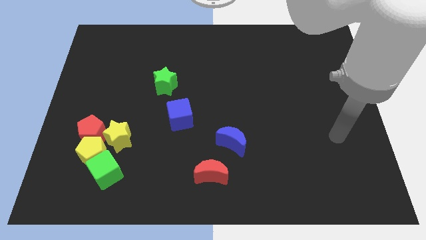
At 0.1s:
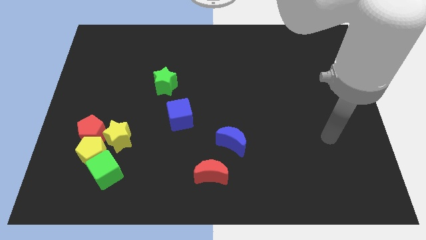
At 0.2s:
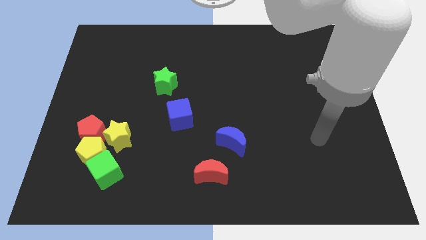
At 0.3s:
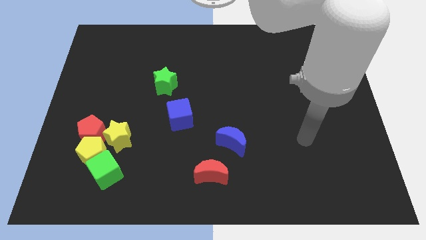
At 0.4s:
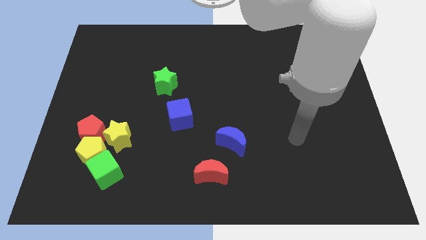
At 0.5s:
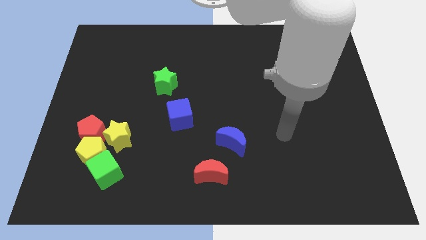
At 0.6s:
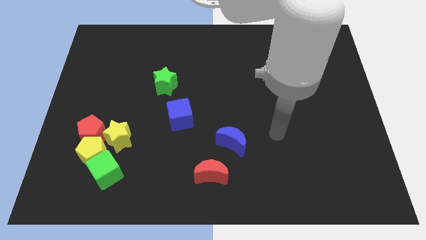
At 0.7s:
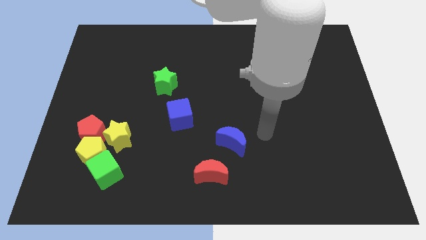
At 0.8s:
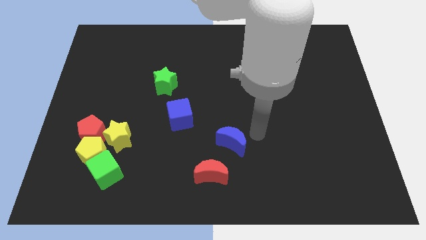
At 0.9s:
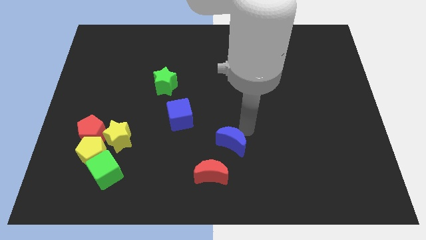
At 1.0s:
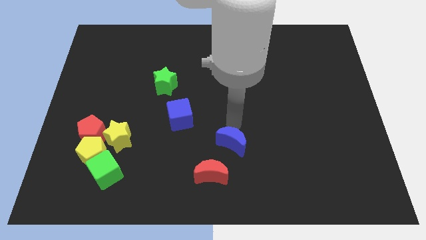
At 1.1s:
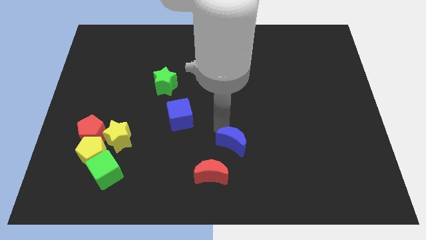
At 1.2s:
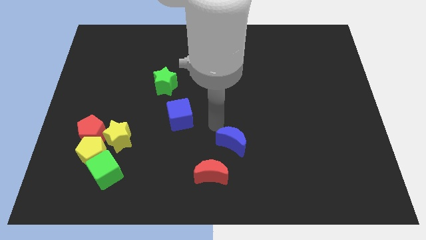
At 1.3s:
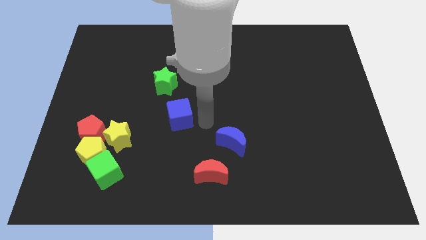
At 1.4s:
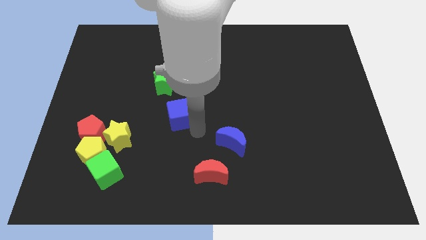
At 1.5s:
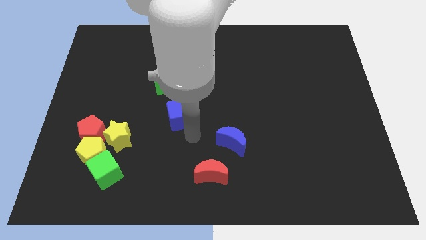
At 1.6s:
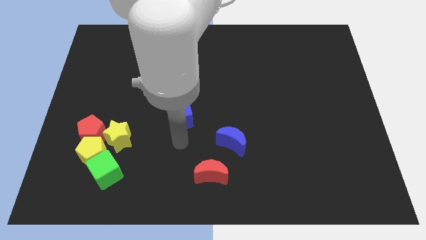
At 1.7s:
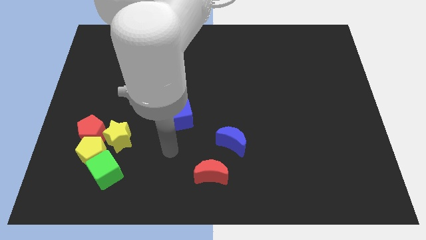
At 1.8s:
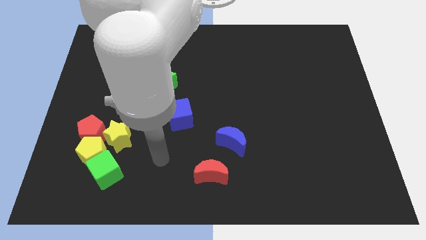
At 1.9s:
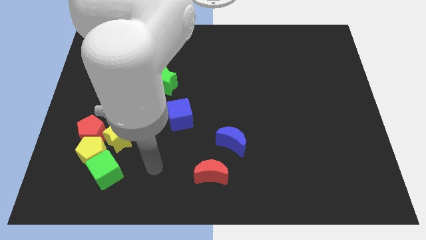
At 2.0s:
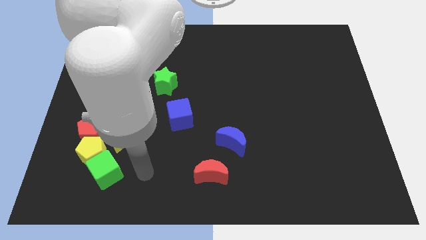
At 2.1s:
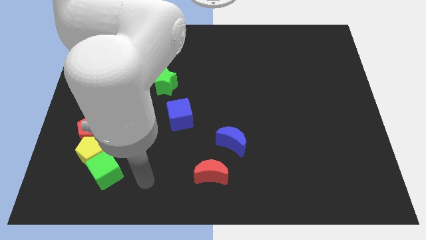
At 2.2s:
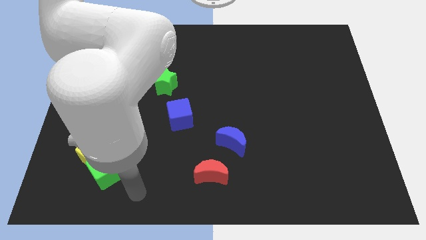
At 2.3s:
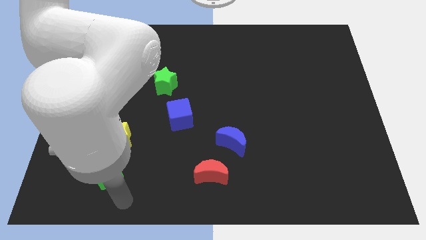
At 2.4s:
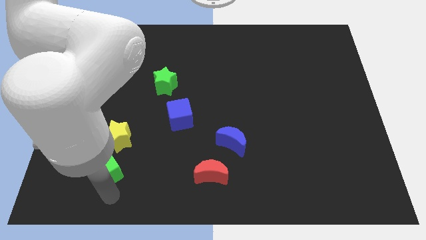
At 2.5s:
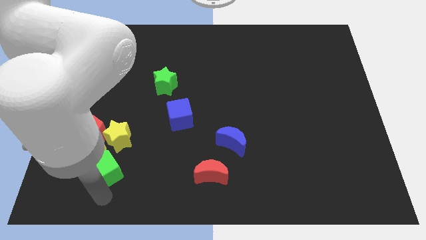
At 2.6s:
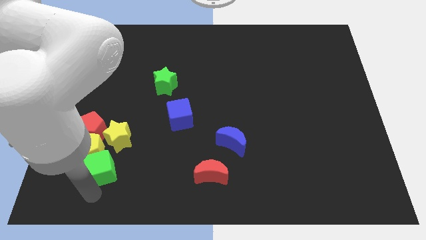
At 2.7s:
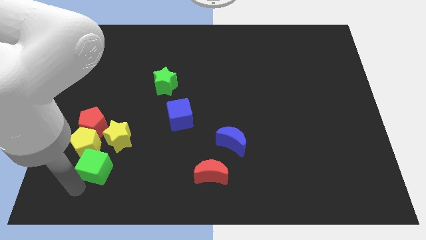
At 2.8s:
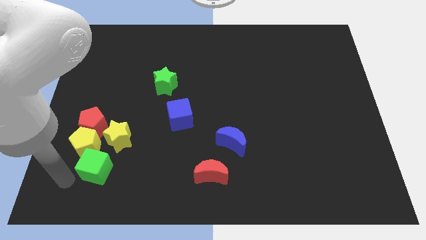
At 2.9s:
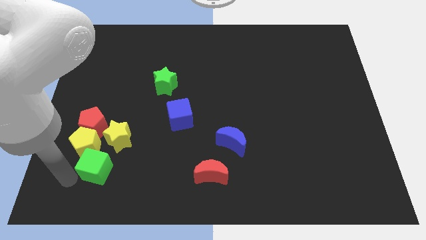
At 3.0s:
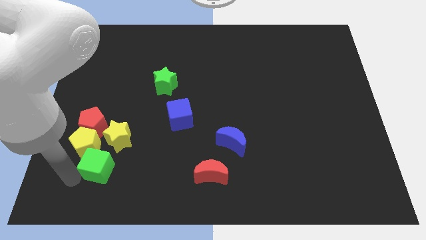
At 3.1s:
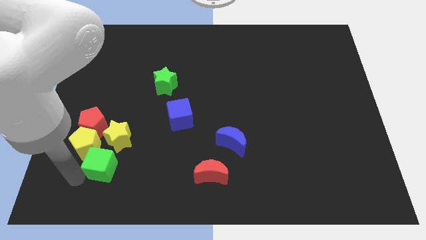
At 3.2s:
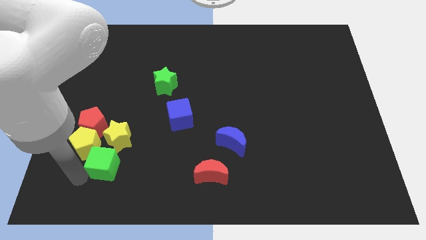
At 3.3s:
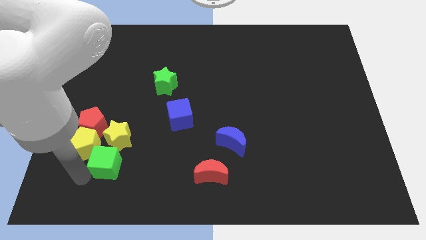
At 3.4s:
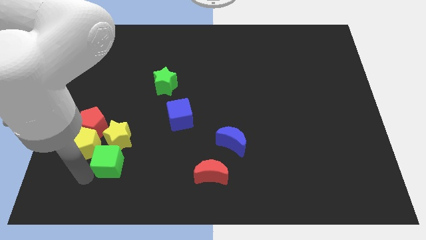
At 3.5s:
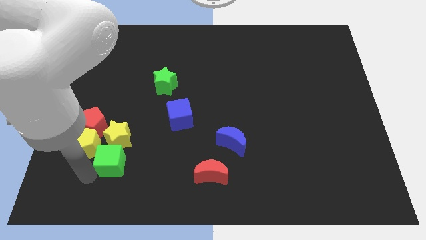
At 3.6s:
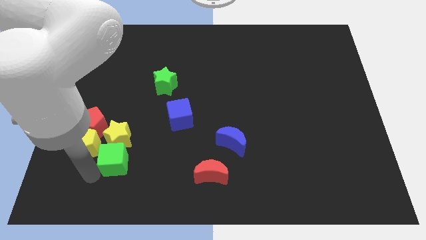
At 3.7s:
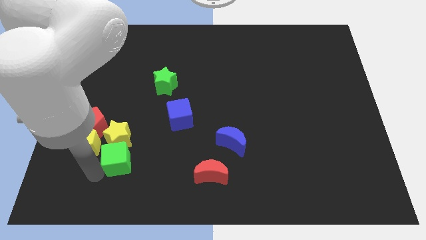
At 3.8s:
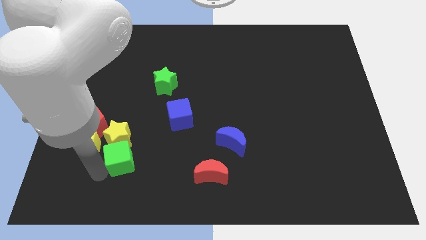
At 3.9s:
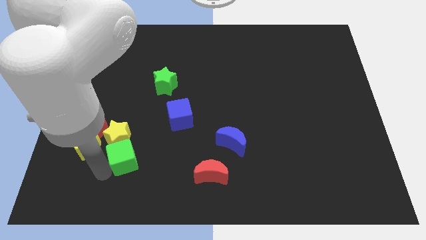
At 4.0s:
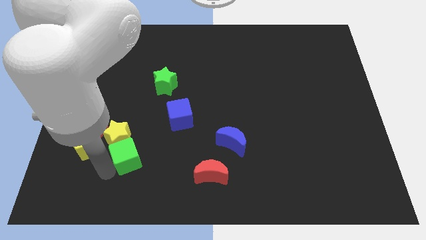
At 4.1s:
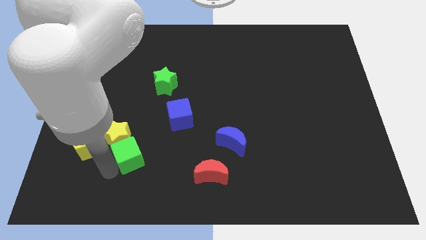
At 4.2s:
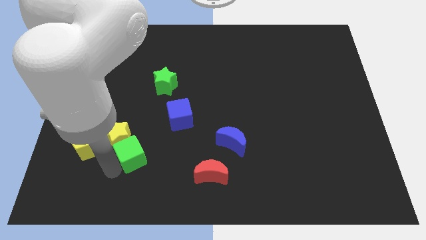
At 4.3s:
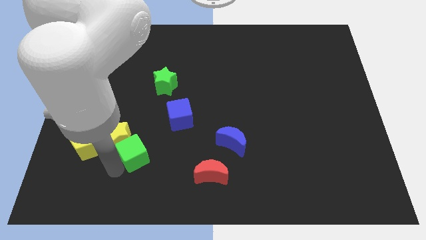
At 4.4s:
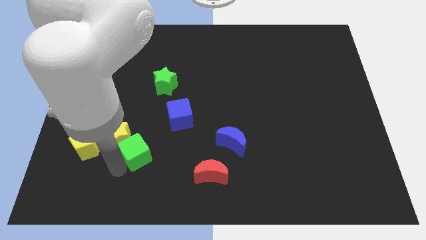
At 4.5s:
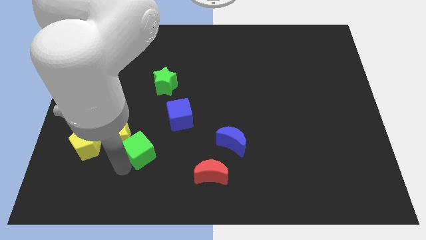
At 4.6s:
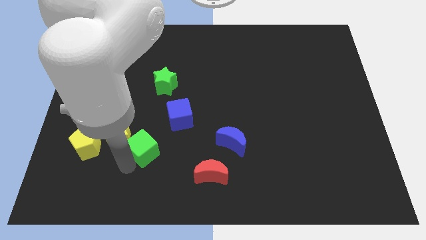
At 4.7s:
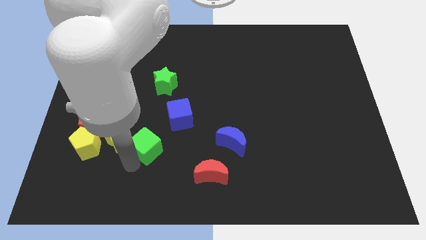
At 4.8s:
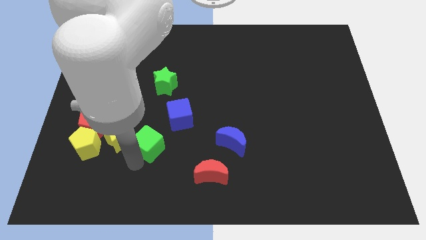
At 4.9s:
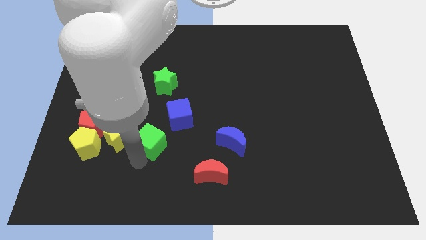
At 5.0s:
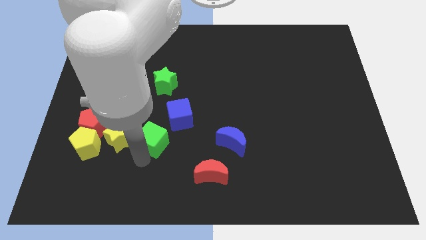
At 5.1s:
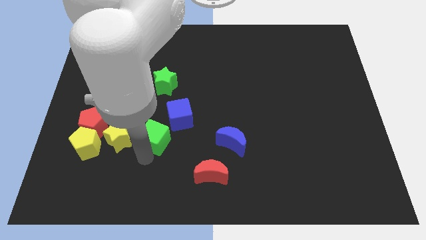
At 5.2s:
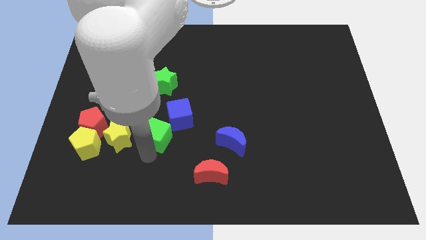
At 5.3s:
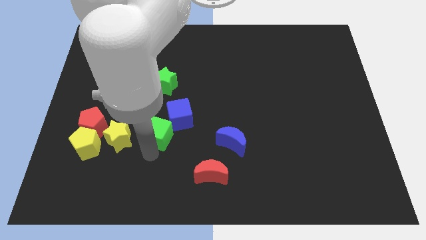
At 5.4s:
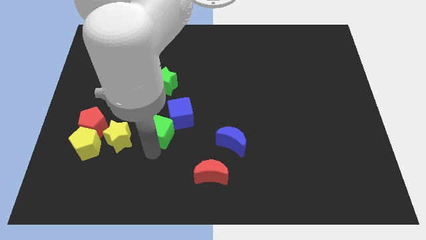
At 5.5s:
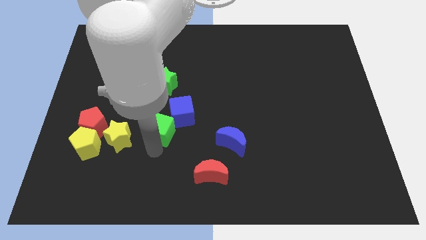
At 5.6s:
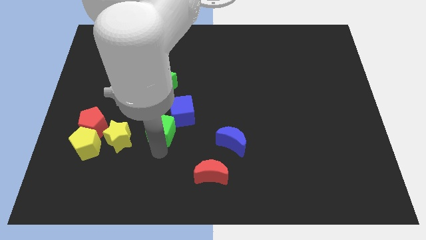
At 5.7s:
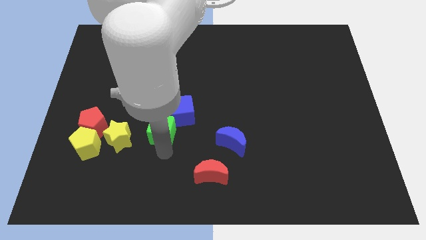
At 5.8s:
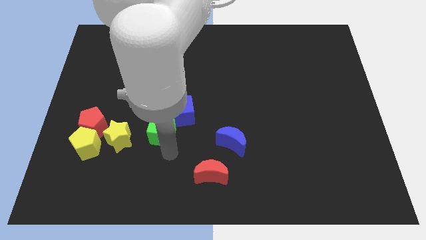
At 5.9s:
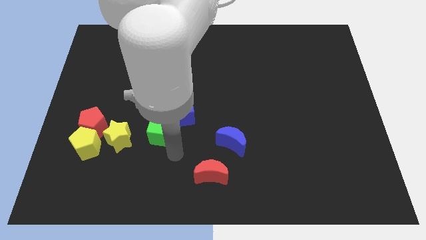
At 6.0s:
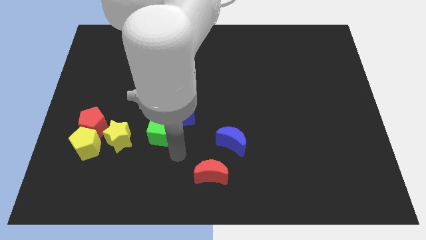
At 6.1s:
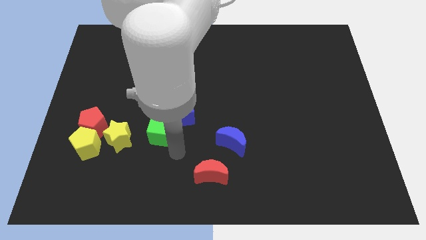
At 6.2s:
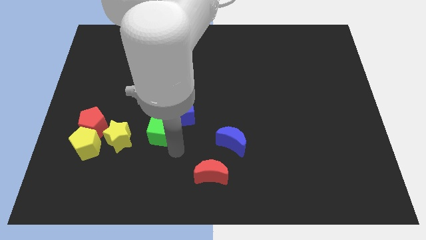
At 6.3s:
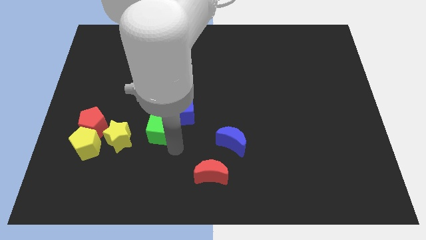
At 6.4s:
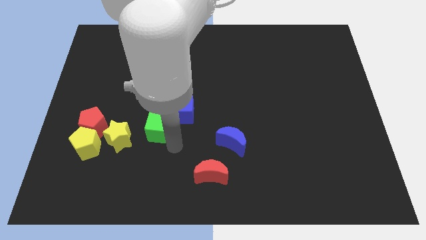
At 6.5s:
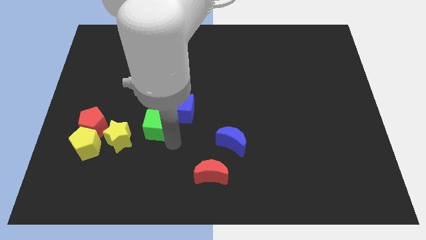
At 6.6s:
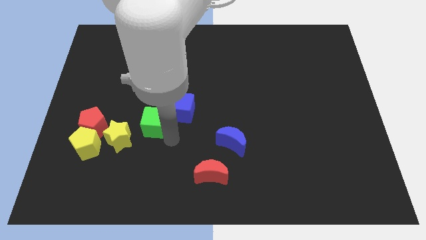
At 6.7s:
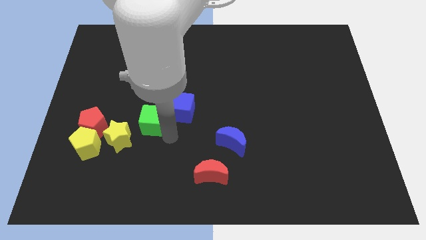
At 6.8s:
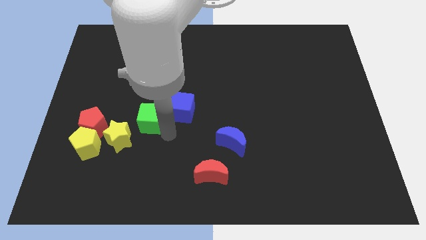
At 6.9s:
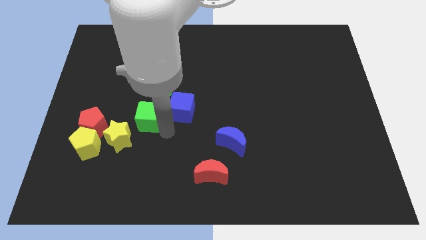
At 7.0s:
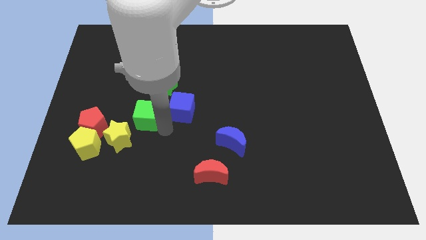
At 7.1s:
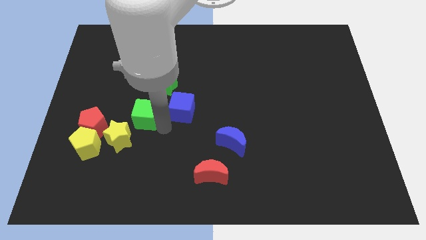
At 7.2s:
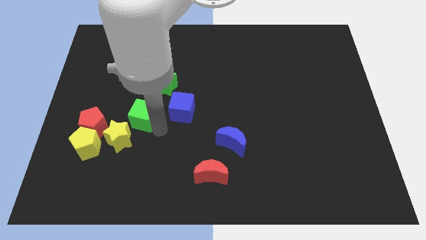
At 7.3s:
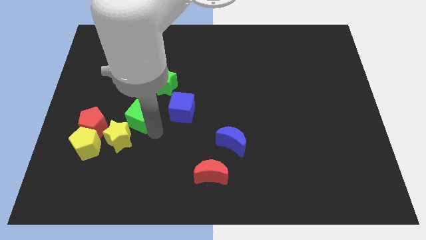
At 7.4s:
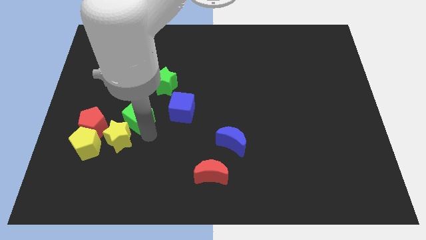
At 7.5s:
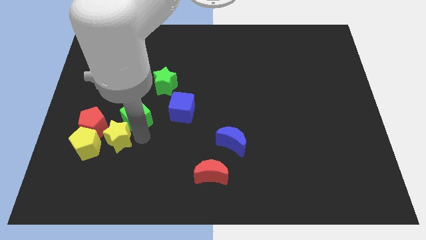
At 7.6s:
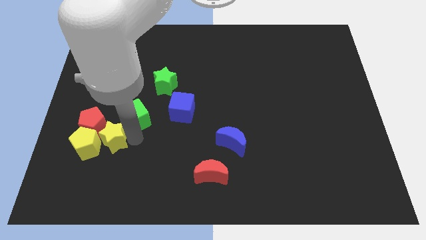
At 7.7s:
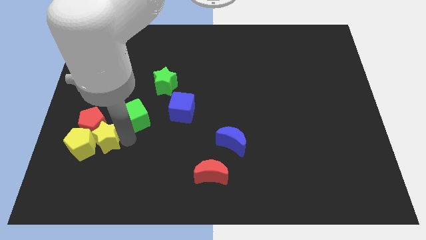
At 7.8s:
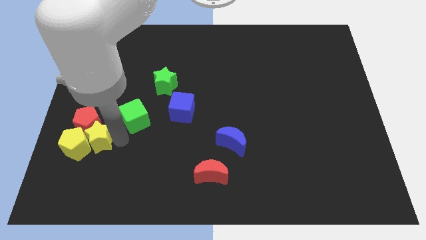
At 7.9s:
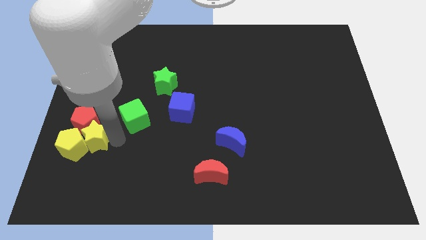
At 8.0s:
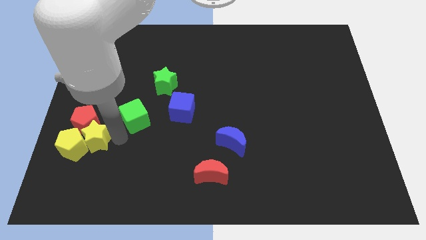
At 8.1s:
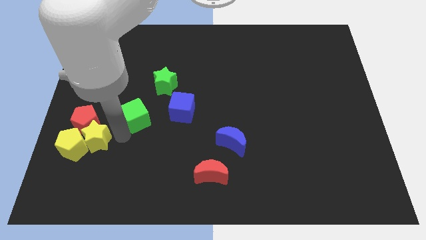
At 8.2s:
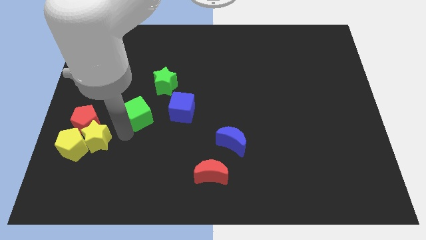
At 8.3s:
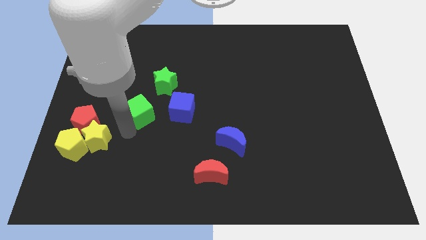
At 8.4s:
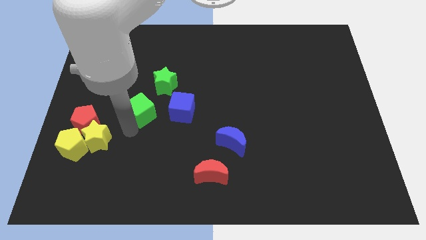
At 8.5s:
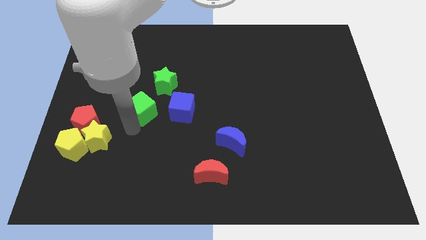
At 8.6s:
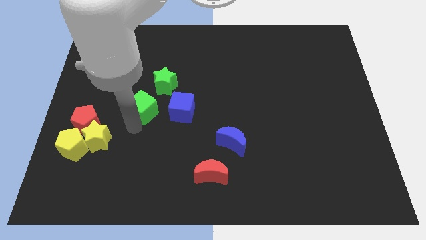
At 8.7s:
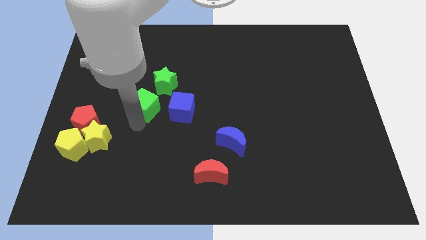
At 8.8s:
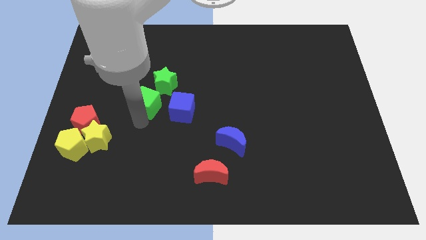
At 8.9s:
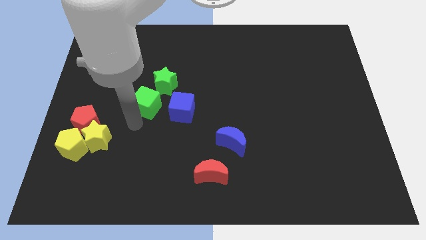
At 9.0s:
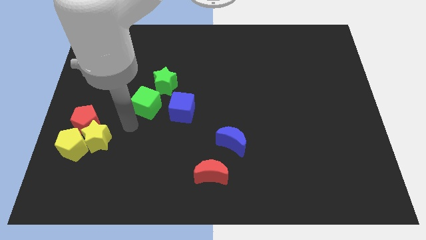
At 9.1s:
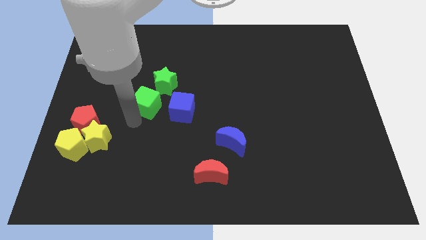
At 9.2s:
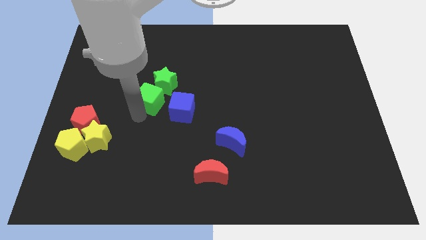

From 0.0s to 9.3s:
slide the green cube towards the green star
